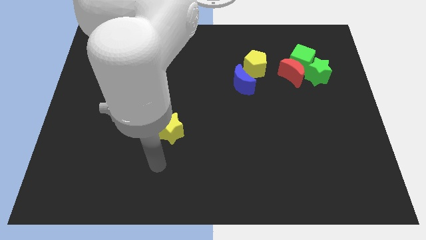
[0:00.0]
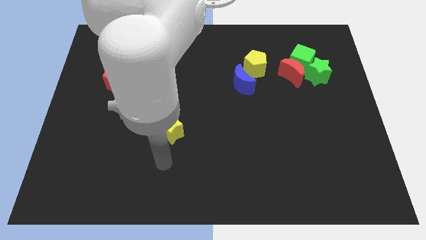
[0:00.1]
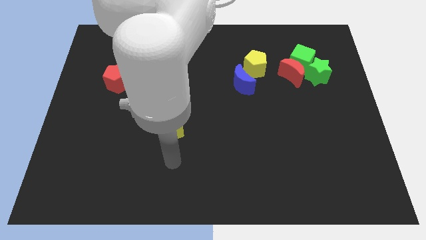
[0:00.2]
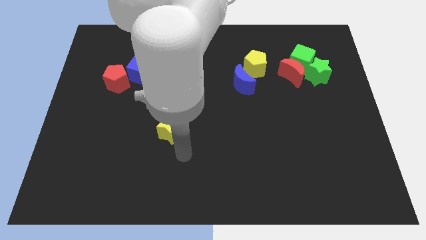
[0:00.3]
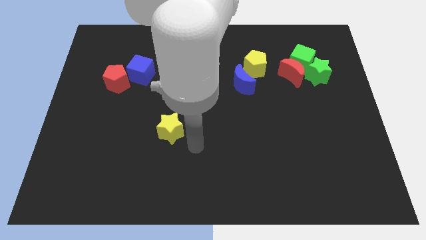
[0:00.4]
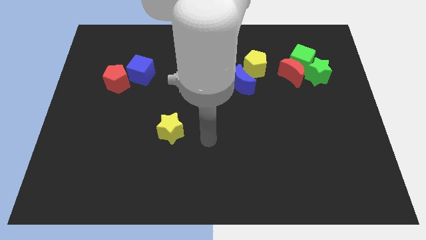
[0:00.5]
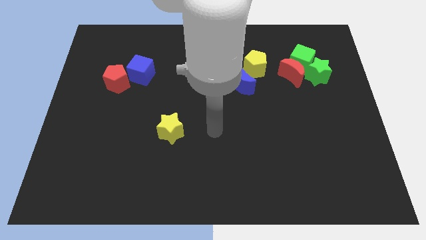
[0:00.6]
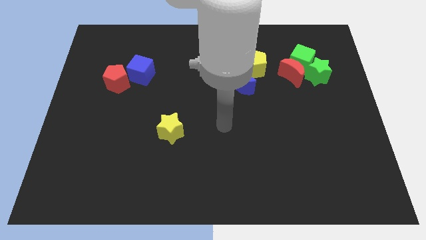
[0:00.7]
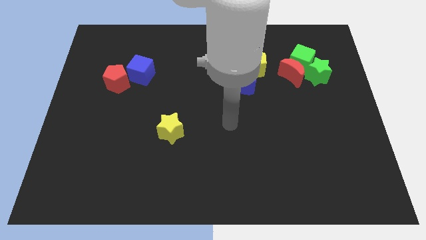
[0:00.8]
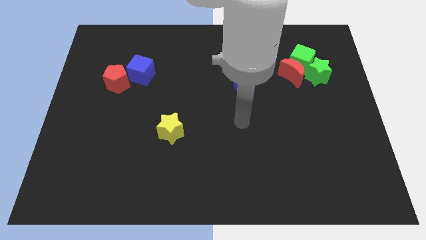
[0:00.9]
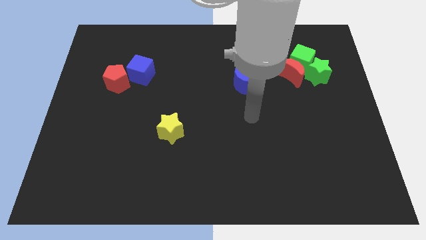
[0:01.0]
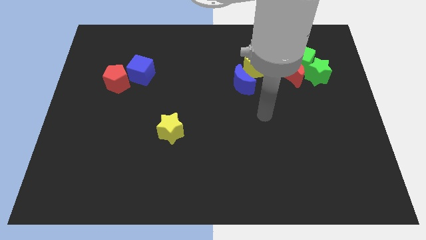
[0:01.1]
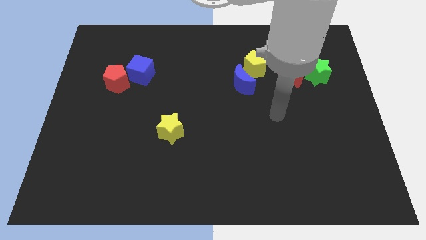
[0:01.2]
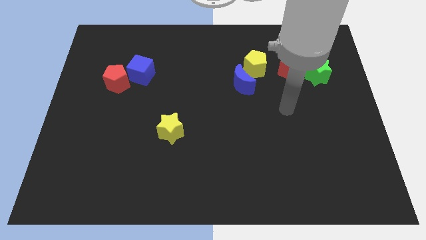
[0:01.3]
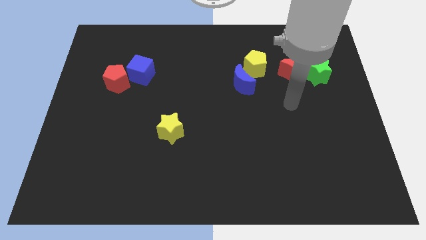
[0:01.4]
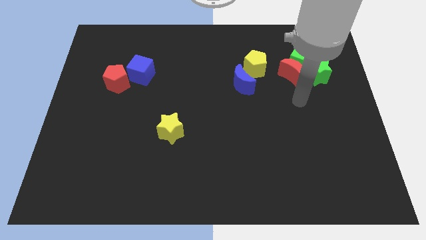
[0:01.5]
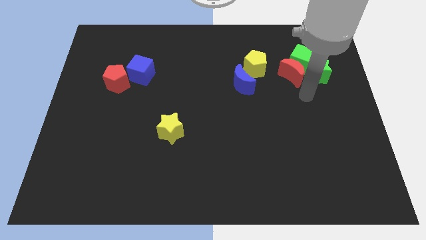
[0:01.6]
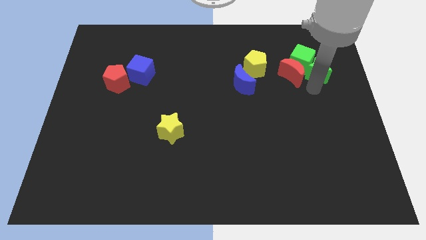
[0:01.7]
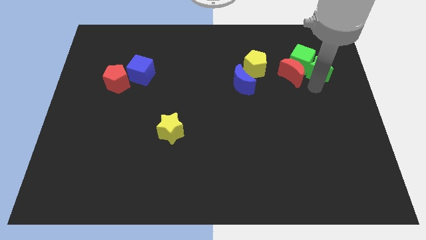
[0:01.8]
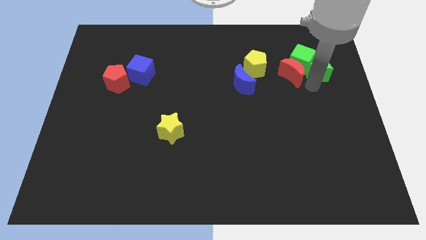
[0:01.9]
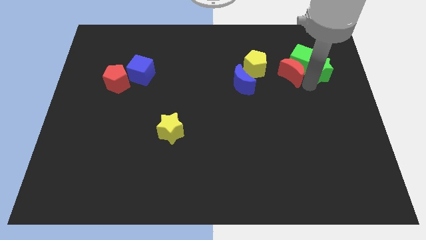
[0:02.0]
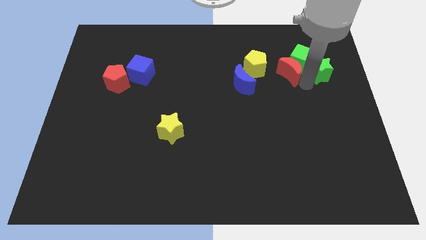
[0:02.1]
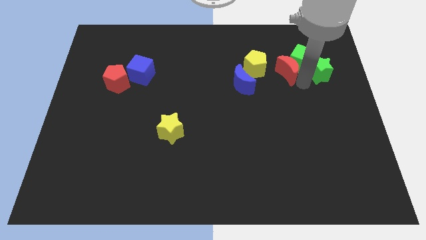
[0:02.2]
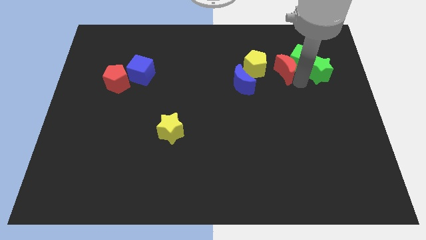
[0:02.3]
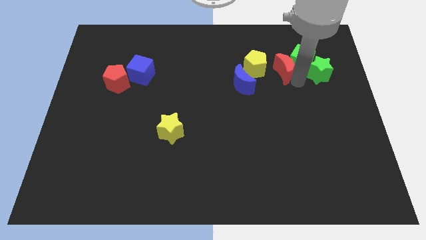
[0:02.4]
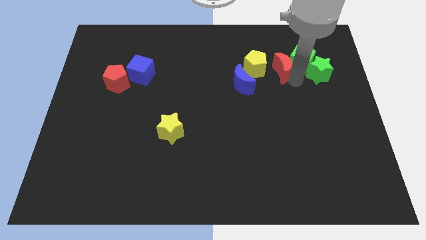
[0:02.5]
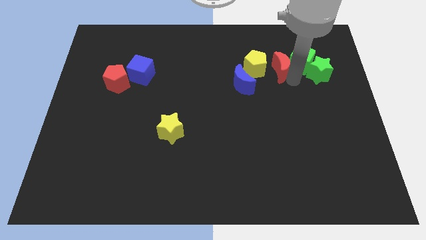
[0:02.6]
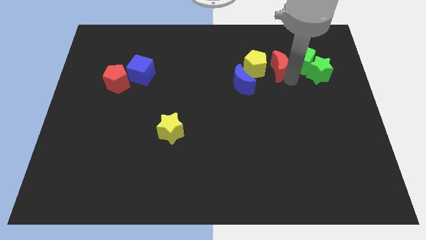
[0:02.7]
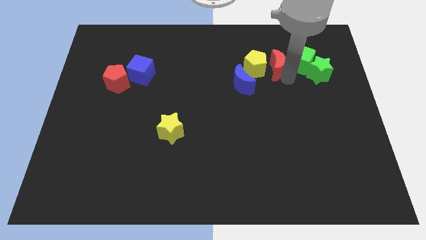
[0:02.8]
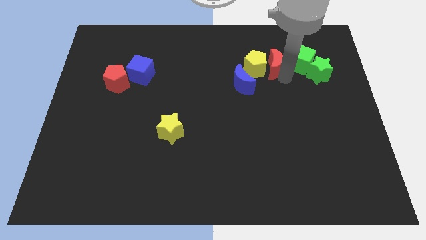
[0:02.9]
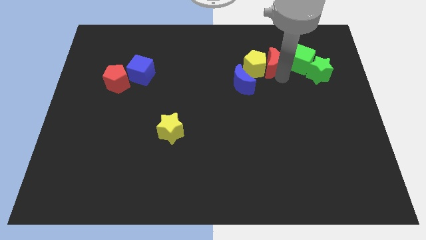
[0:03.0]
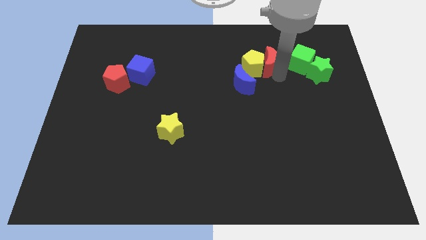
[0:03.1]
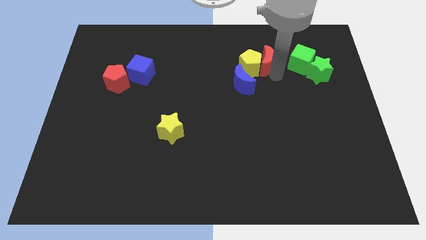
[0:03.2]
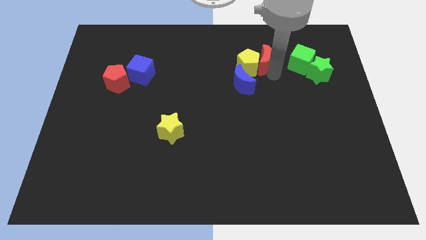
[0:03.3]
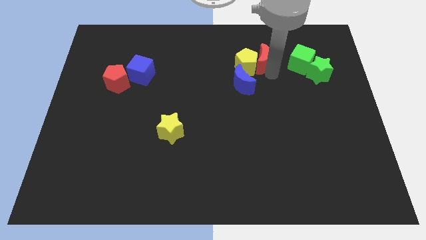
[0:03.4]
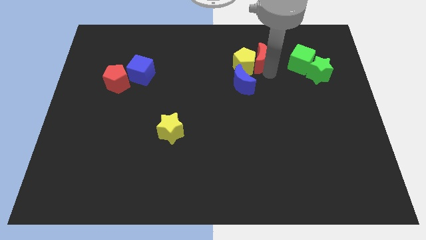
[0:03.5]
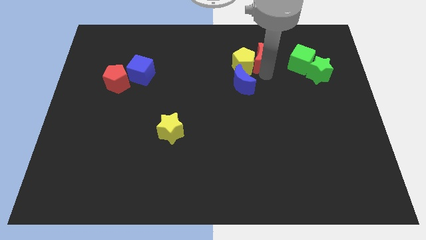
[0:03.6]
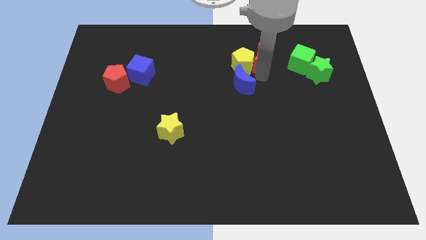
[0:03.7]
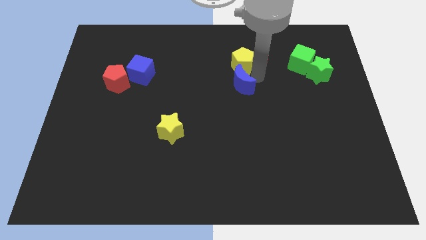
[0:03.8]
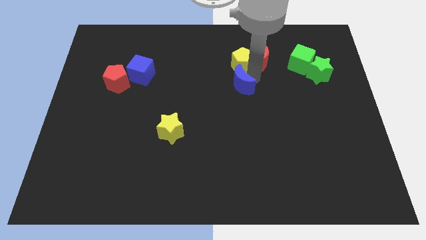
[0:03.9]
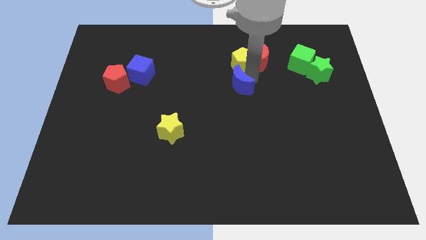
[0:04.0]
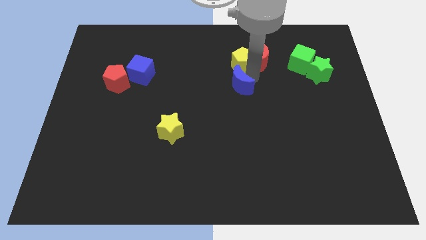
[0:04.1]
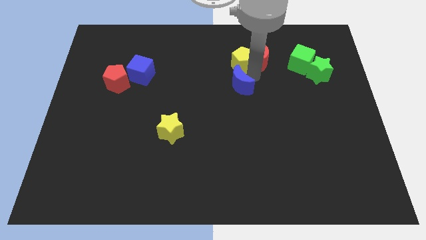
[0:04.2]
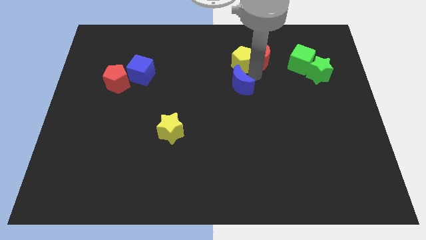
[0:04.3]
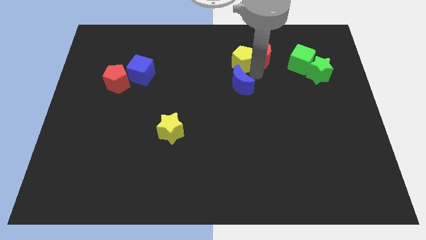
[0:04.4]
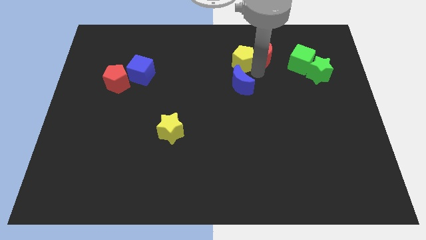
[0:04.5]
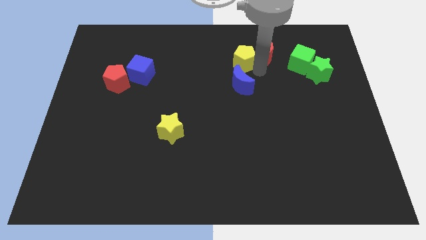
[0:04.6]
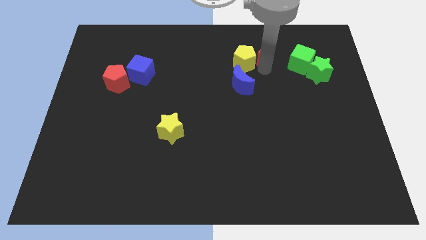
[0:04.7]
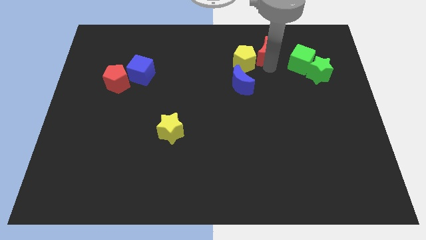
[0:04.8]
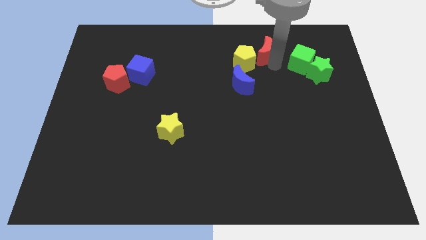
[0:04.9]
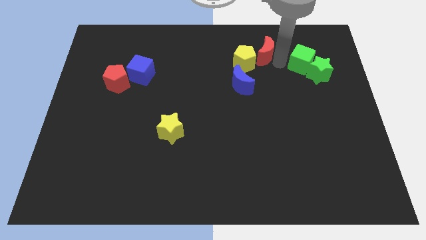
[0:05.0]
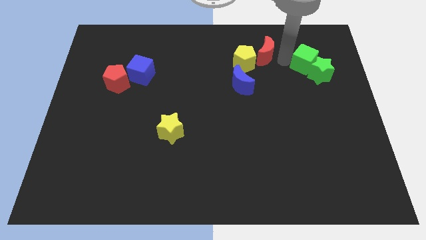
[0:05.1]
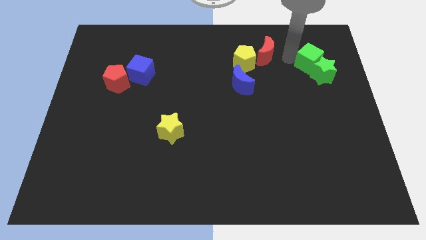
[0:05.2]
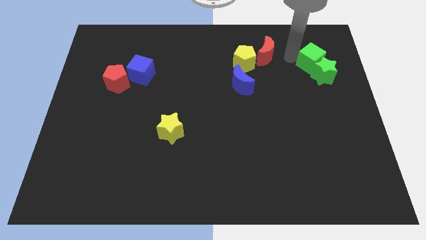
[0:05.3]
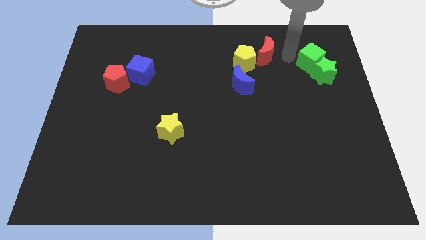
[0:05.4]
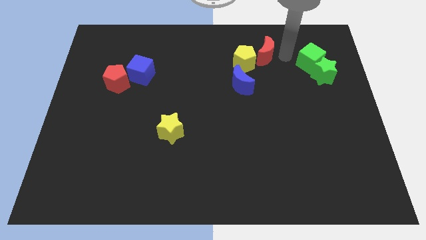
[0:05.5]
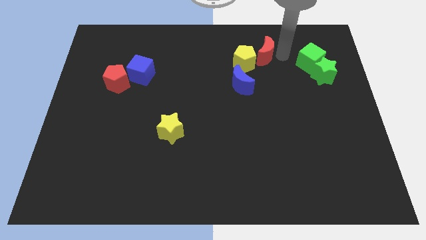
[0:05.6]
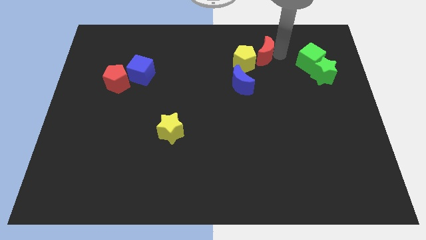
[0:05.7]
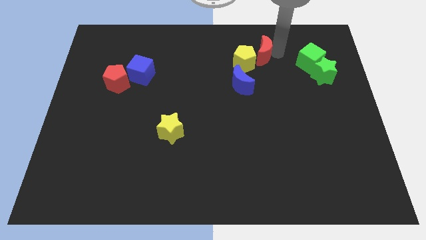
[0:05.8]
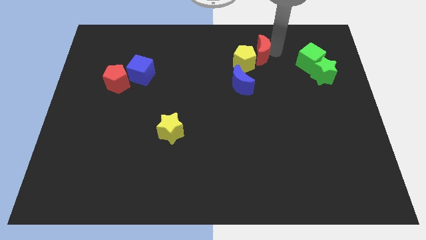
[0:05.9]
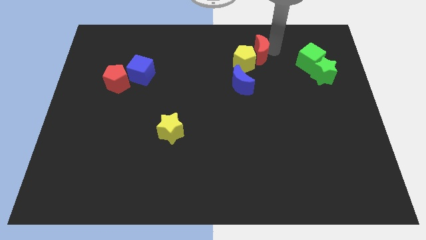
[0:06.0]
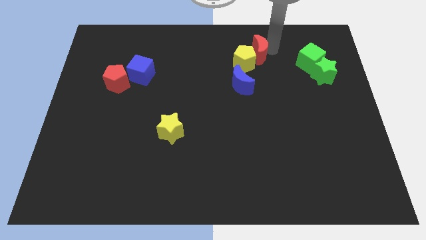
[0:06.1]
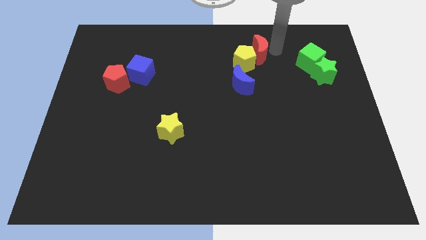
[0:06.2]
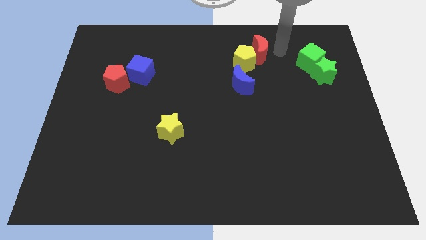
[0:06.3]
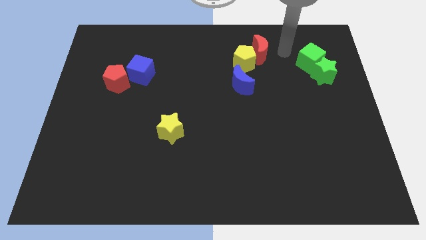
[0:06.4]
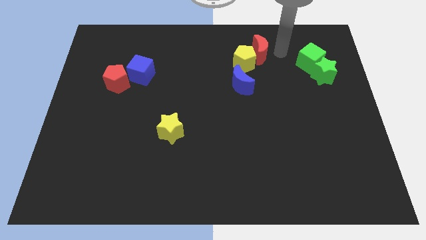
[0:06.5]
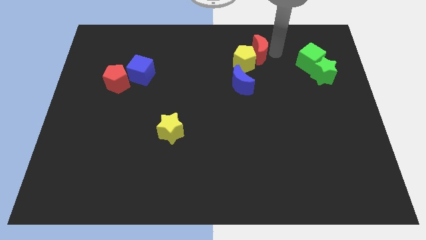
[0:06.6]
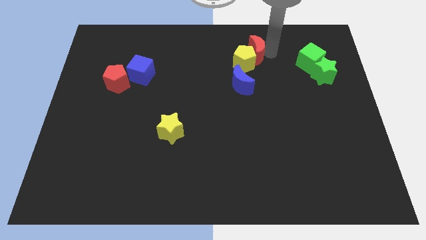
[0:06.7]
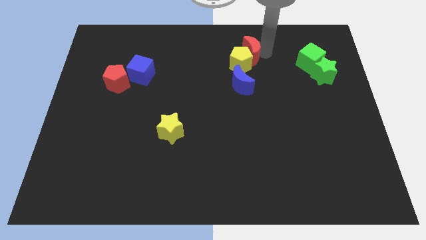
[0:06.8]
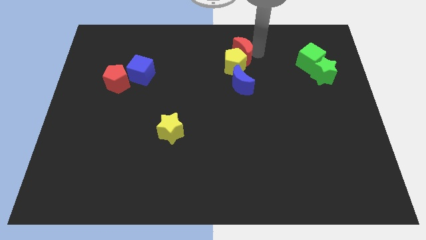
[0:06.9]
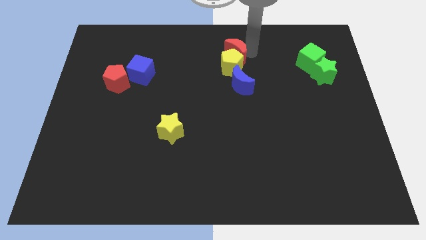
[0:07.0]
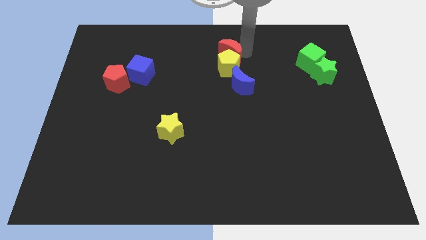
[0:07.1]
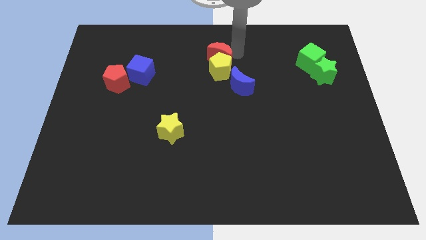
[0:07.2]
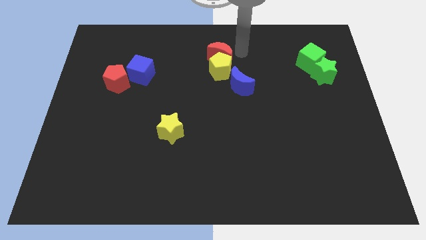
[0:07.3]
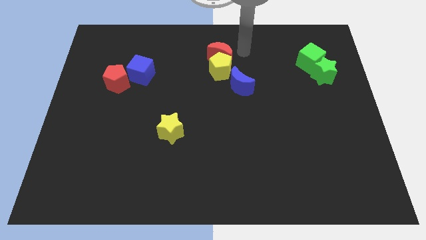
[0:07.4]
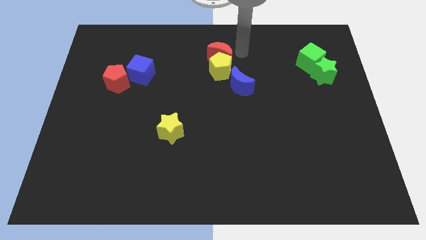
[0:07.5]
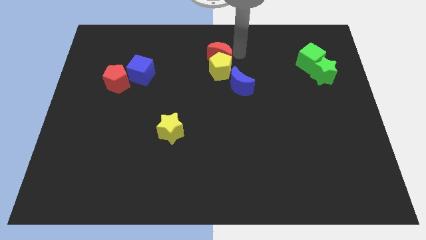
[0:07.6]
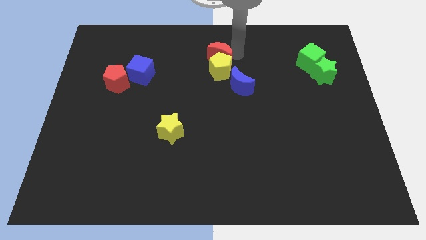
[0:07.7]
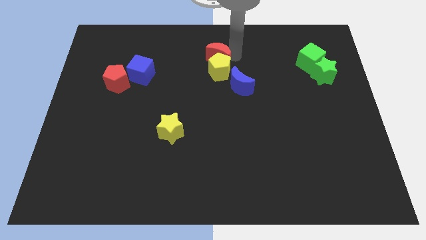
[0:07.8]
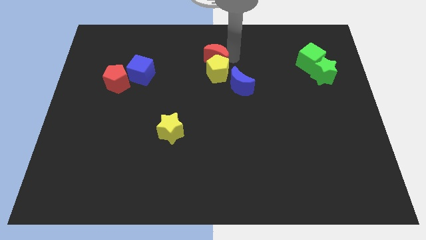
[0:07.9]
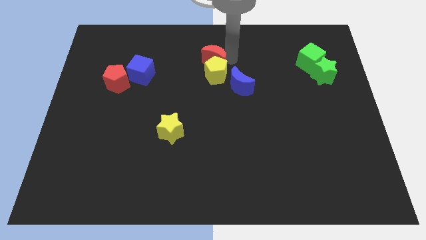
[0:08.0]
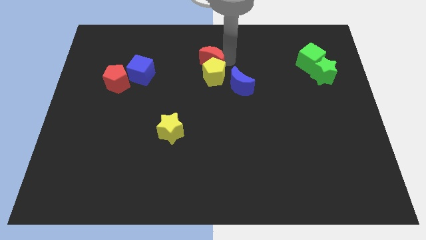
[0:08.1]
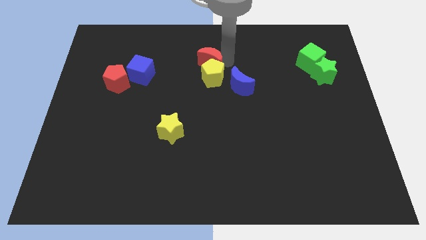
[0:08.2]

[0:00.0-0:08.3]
slide the red moon to the left
